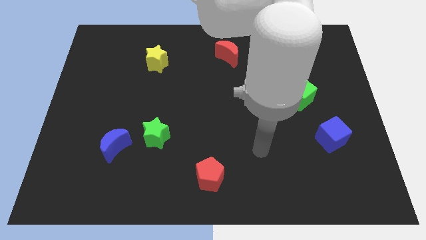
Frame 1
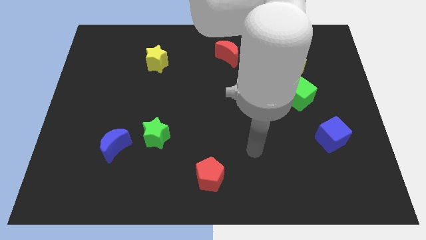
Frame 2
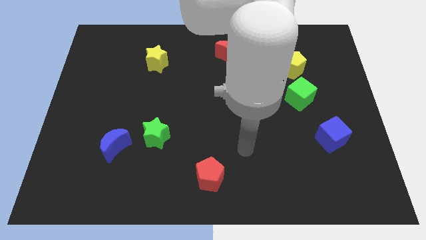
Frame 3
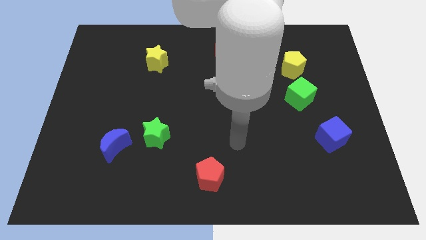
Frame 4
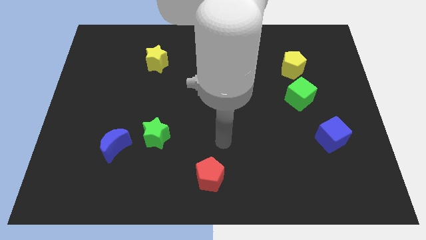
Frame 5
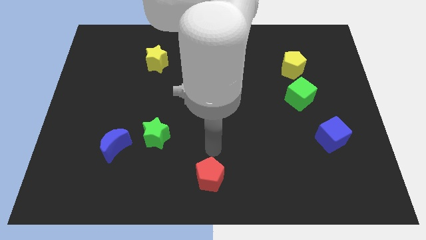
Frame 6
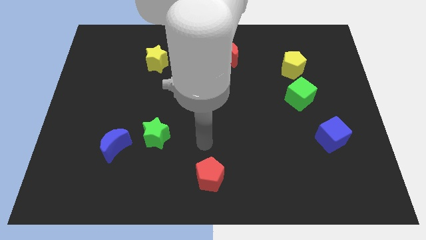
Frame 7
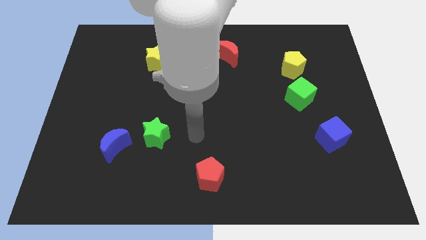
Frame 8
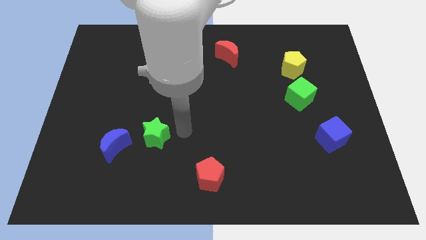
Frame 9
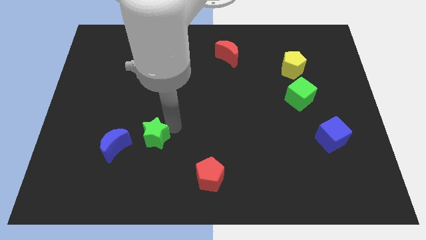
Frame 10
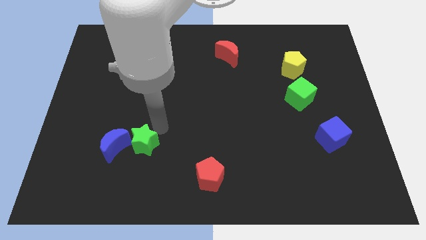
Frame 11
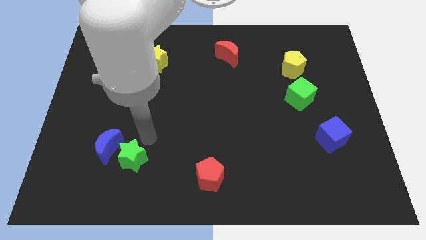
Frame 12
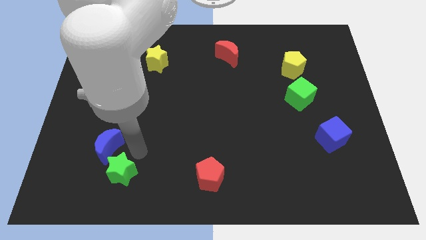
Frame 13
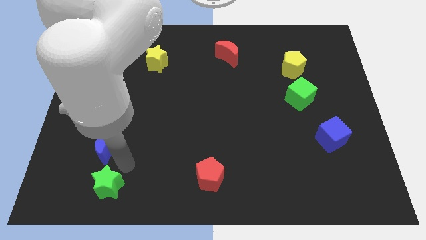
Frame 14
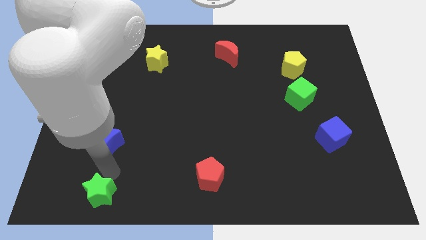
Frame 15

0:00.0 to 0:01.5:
move the blue moon away from the green star

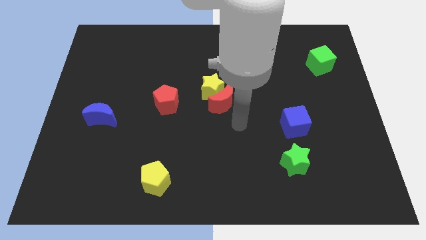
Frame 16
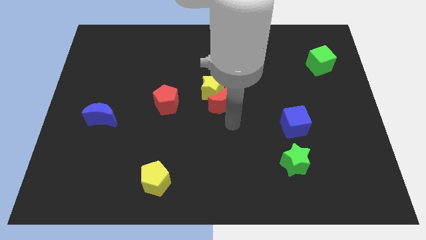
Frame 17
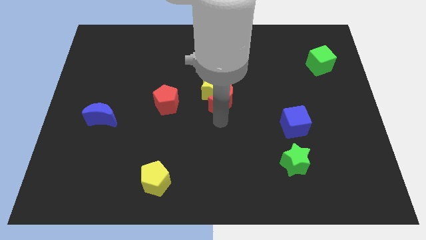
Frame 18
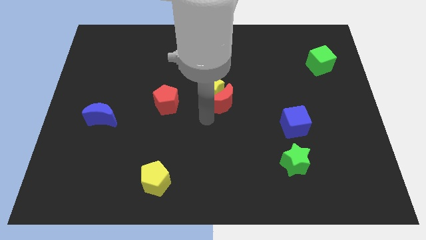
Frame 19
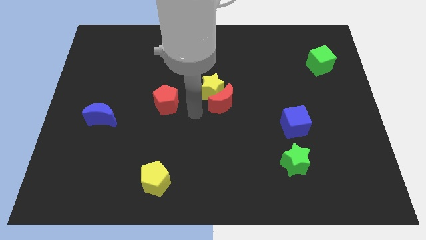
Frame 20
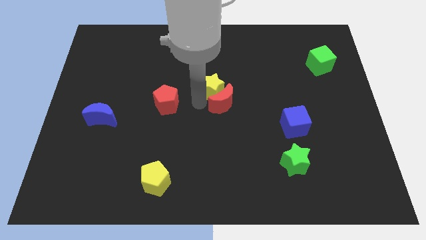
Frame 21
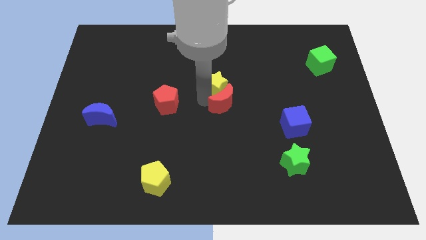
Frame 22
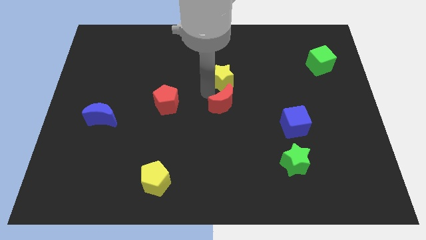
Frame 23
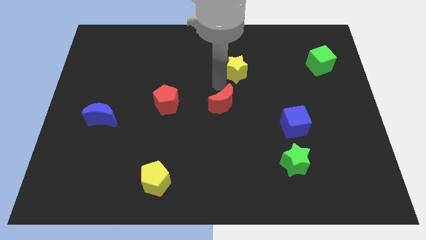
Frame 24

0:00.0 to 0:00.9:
move the red moon away from the yellow star

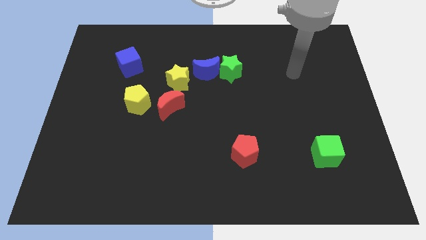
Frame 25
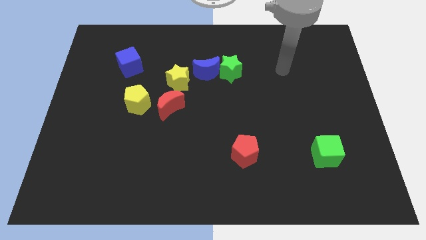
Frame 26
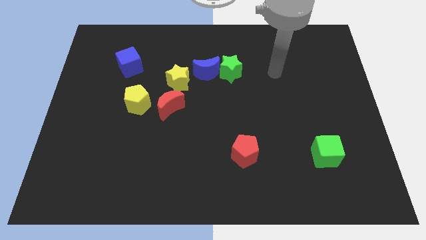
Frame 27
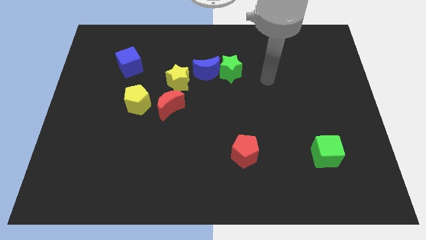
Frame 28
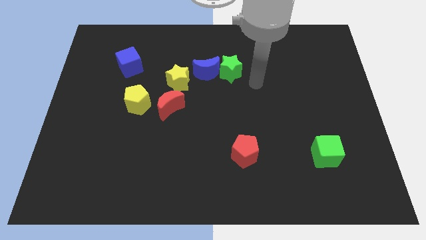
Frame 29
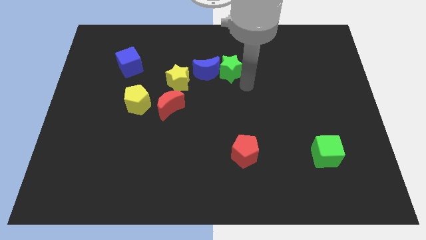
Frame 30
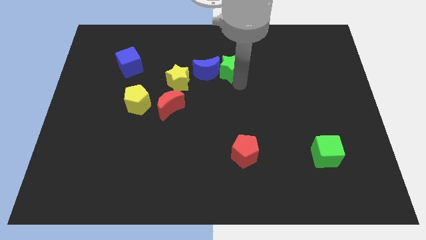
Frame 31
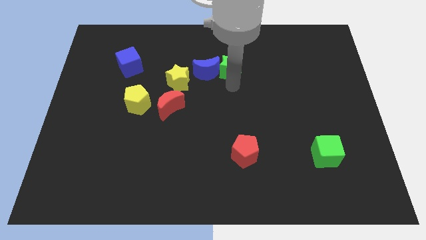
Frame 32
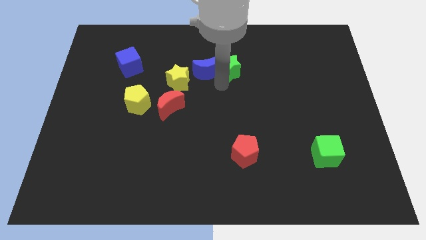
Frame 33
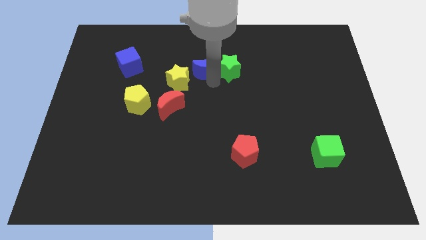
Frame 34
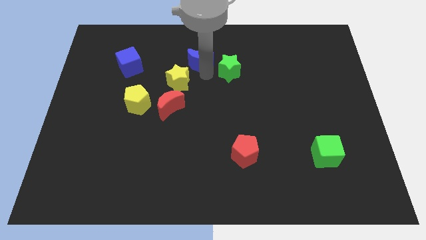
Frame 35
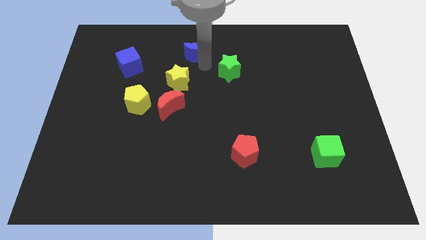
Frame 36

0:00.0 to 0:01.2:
pull the green star apart from the blue moon

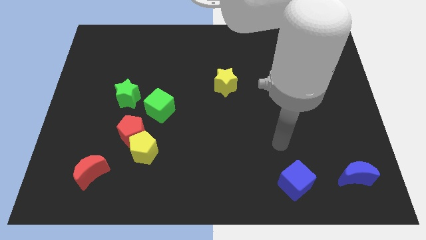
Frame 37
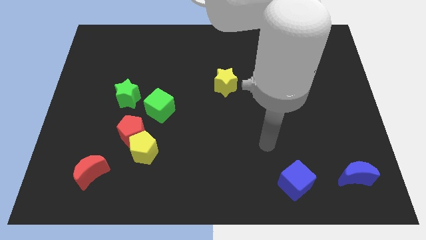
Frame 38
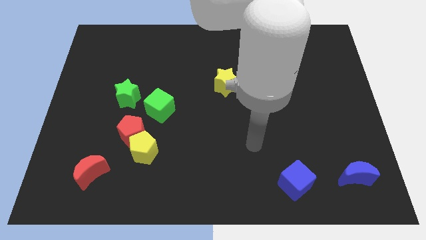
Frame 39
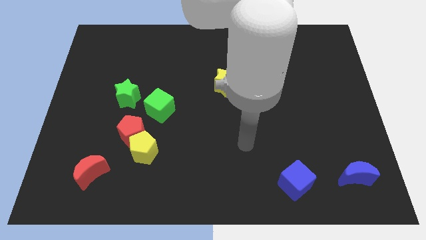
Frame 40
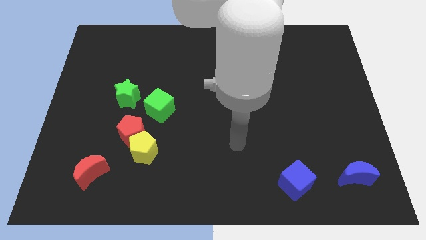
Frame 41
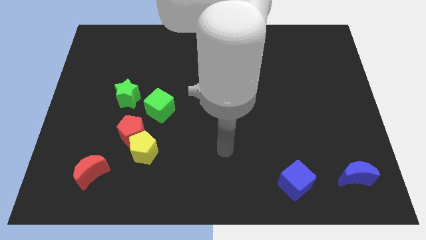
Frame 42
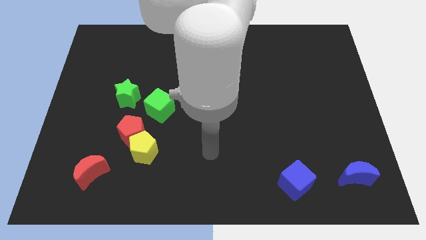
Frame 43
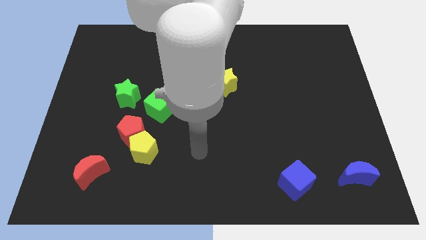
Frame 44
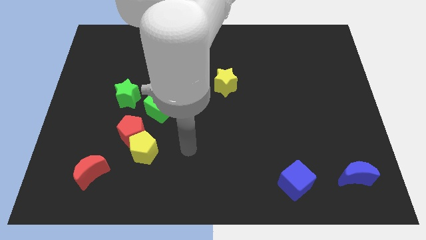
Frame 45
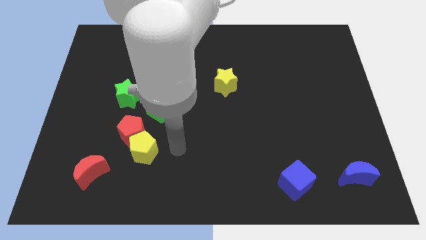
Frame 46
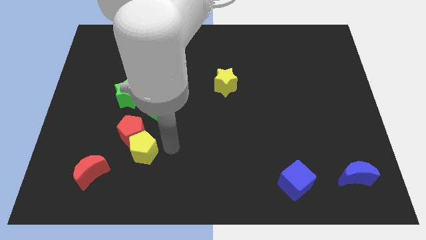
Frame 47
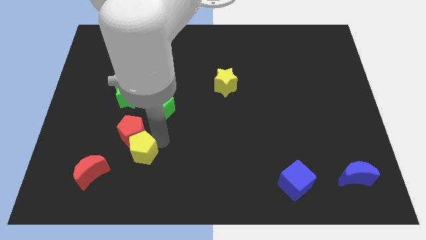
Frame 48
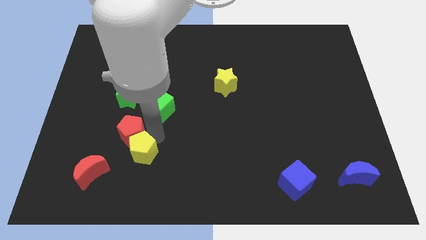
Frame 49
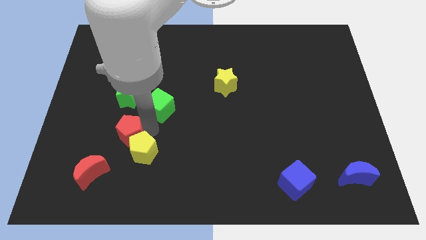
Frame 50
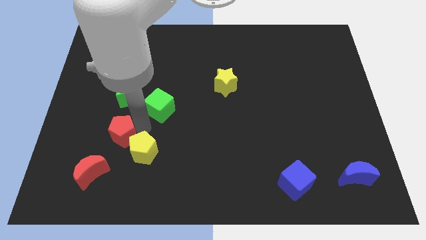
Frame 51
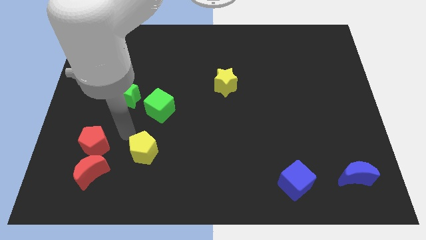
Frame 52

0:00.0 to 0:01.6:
pull the yellow pentagon apart from the red pentagon

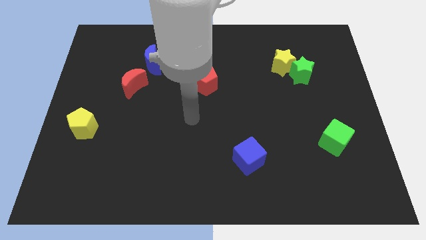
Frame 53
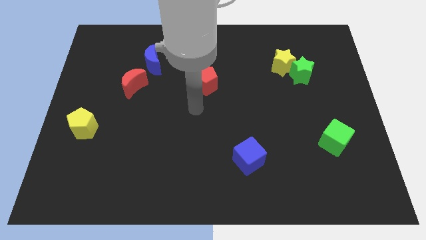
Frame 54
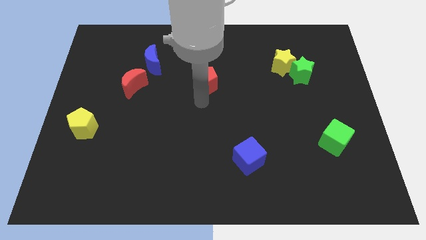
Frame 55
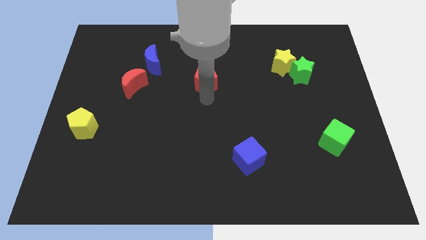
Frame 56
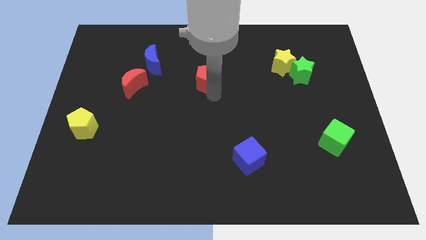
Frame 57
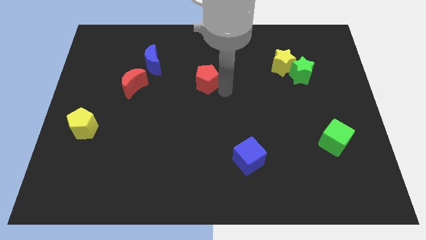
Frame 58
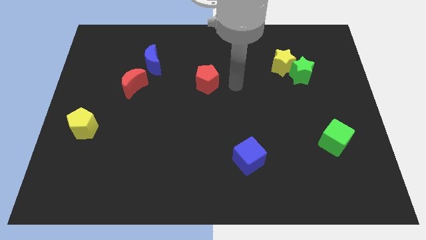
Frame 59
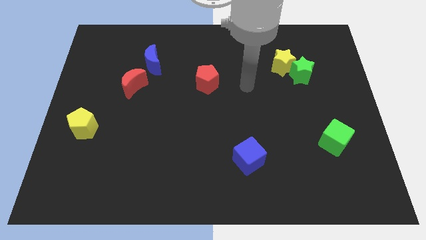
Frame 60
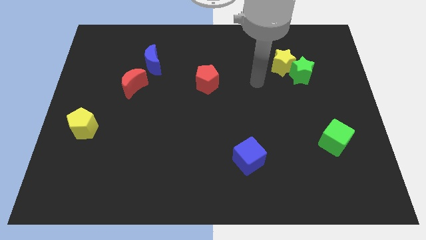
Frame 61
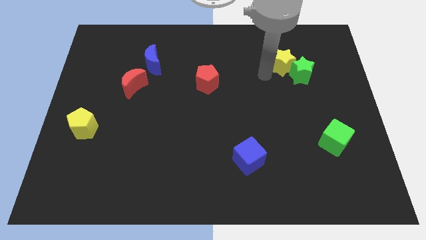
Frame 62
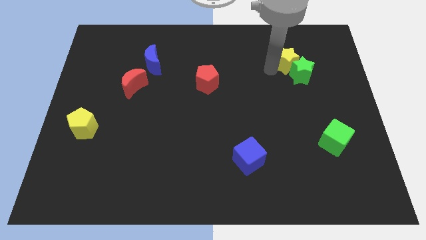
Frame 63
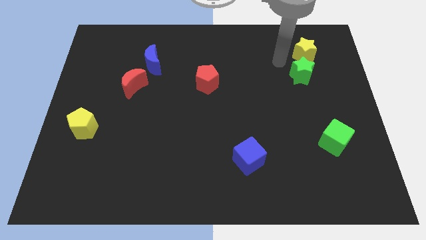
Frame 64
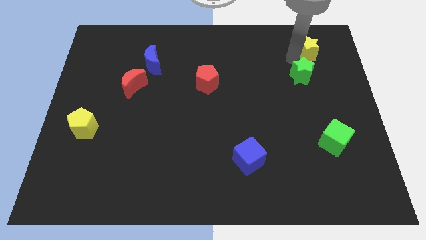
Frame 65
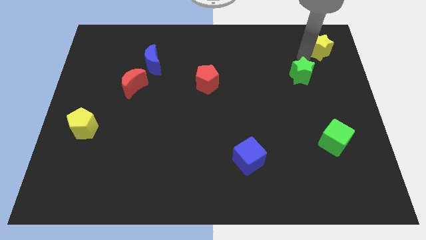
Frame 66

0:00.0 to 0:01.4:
move the green star away from the yellow star

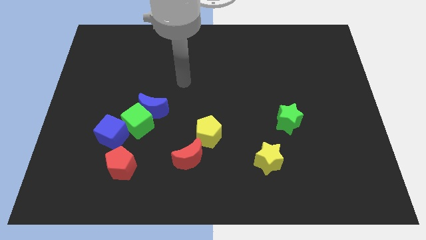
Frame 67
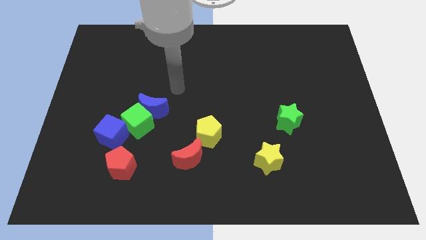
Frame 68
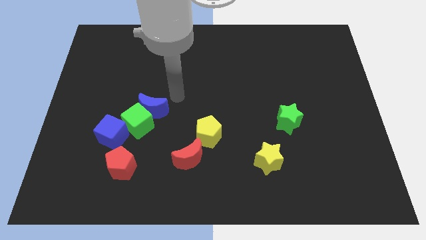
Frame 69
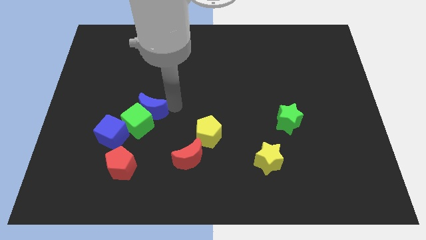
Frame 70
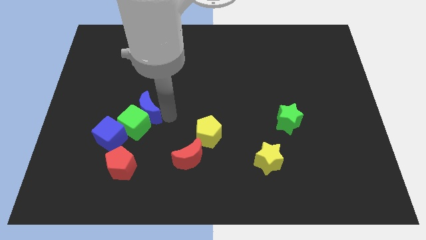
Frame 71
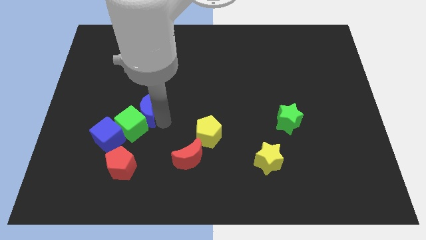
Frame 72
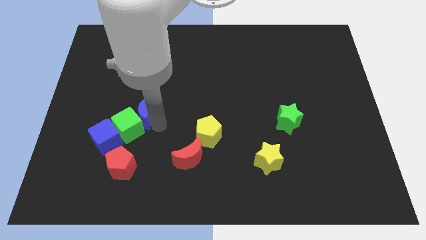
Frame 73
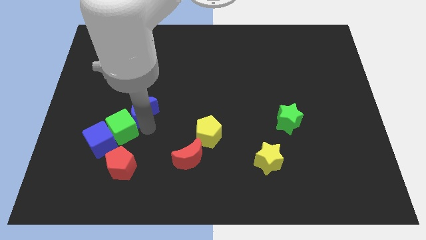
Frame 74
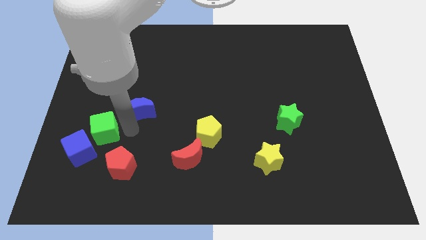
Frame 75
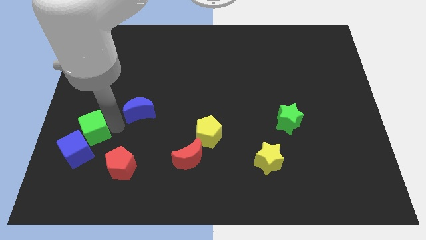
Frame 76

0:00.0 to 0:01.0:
pull the blue moon apart from the green cube

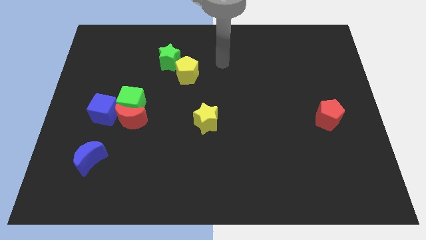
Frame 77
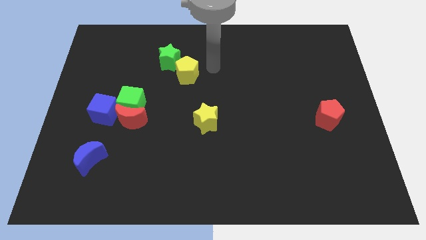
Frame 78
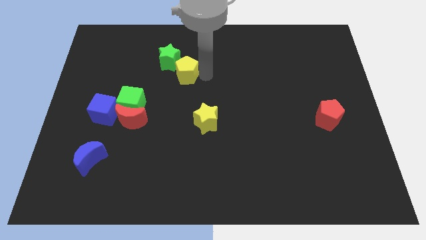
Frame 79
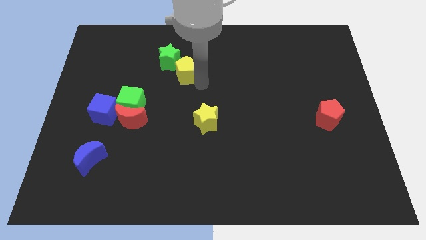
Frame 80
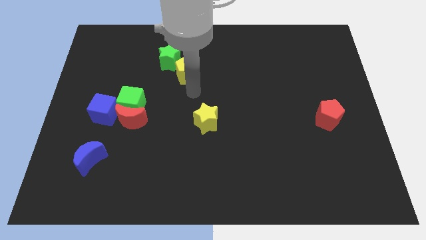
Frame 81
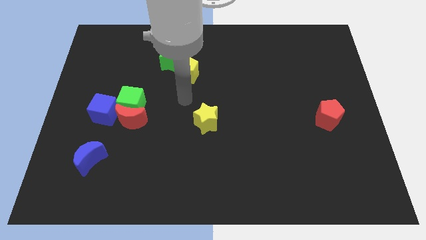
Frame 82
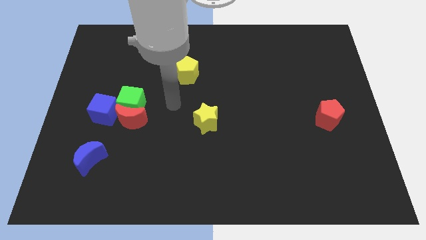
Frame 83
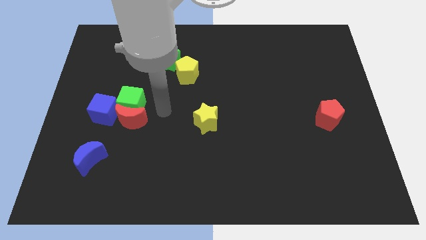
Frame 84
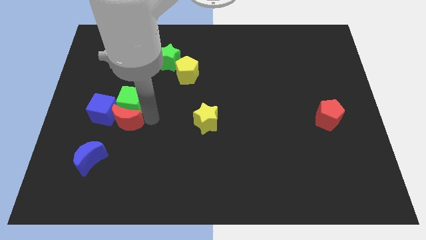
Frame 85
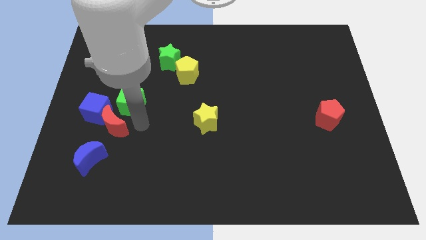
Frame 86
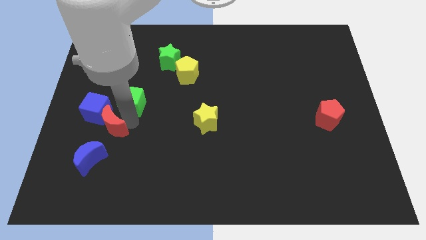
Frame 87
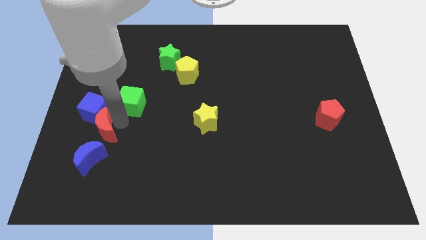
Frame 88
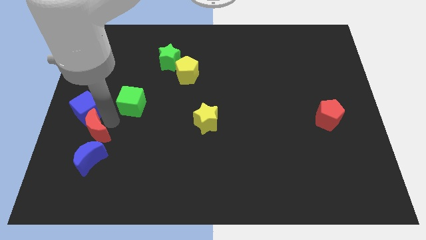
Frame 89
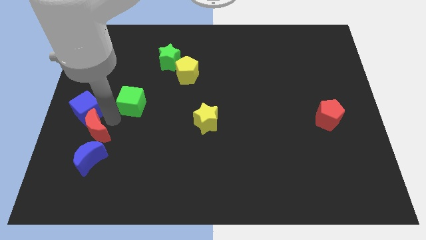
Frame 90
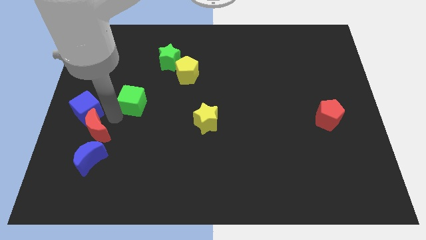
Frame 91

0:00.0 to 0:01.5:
pull the green cube apart from the red moon and blue cube
